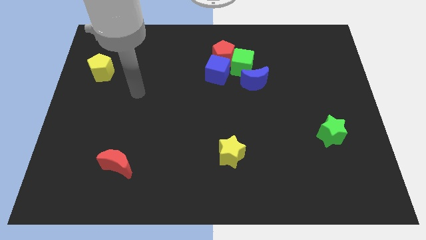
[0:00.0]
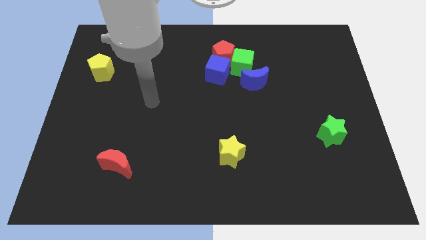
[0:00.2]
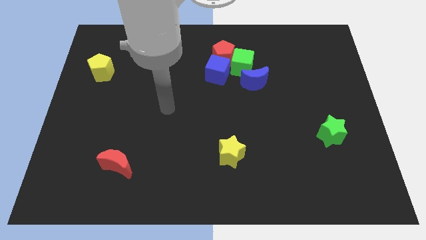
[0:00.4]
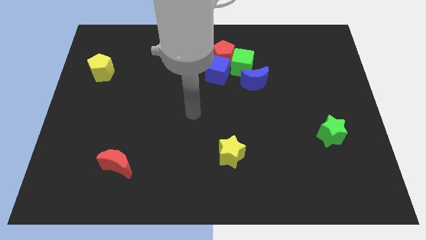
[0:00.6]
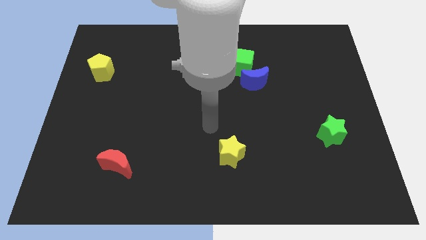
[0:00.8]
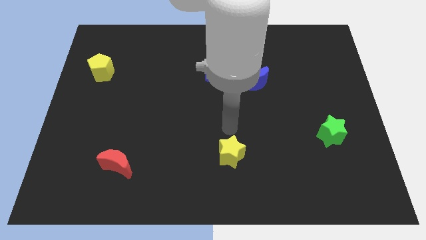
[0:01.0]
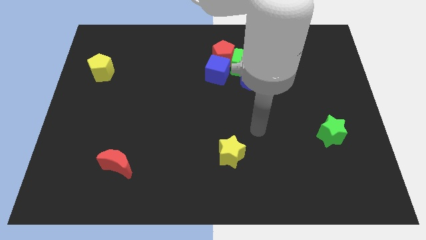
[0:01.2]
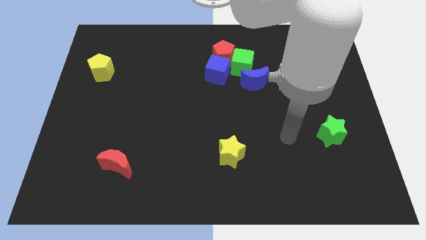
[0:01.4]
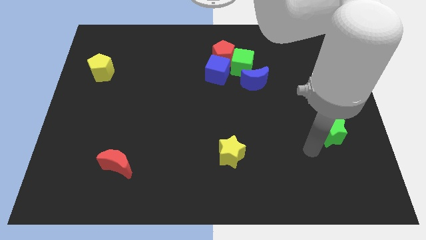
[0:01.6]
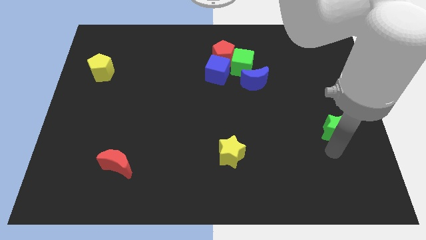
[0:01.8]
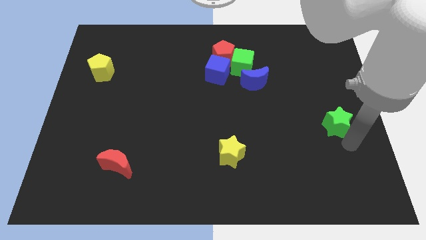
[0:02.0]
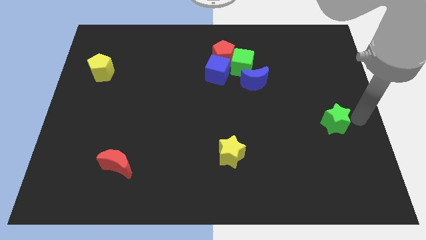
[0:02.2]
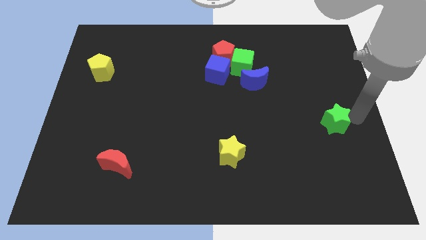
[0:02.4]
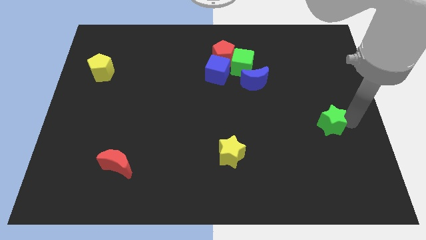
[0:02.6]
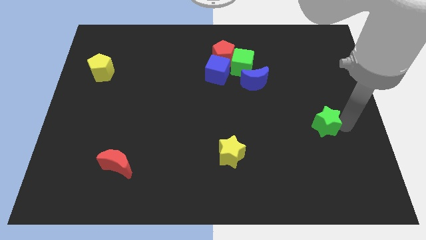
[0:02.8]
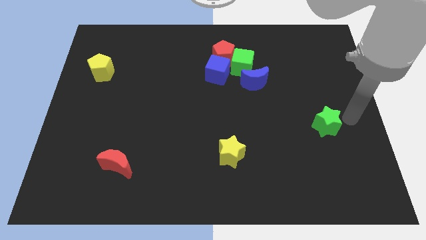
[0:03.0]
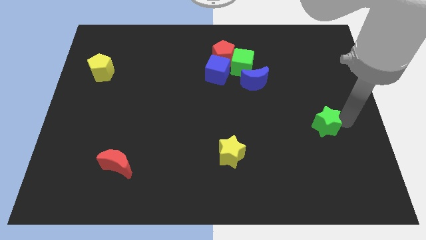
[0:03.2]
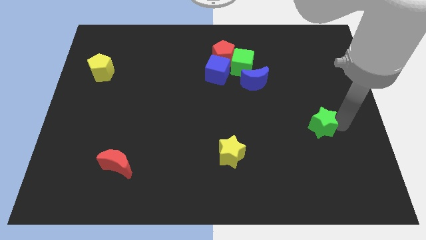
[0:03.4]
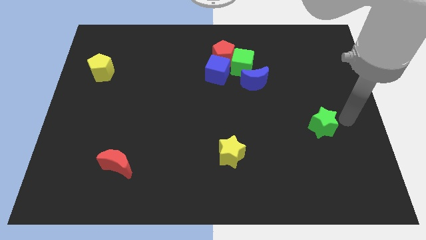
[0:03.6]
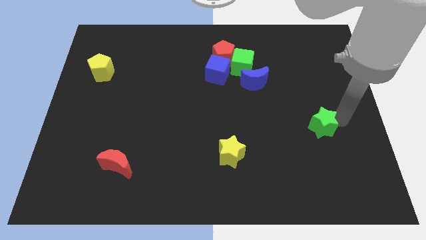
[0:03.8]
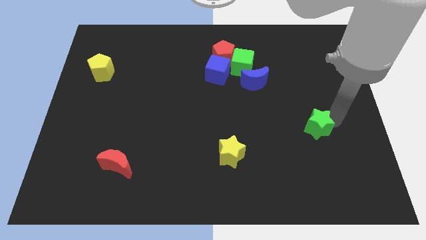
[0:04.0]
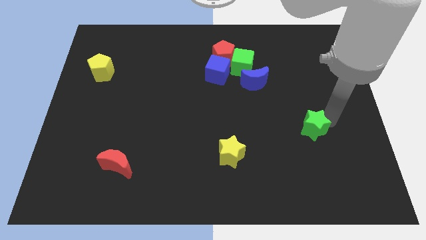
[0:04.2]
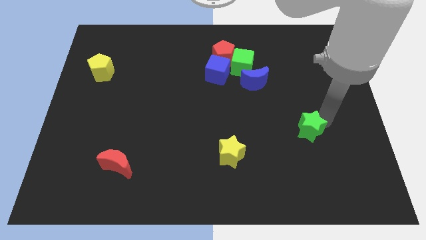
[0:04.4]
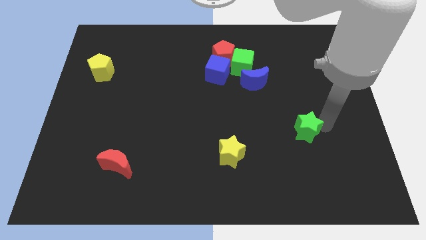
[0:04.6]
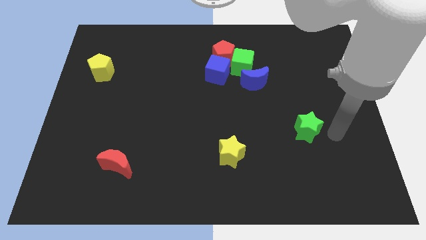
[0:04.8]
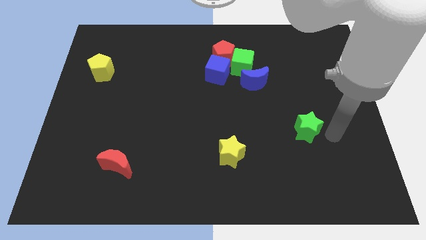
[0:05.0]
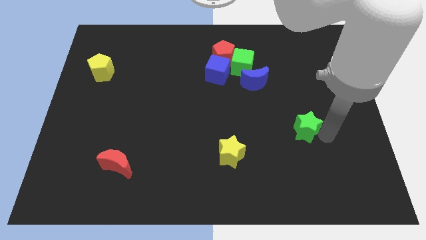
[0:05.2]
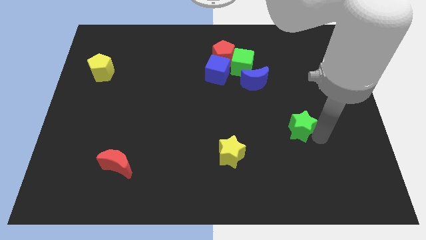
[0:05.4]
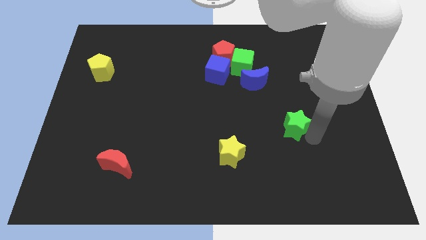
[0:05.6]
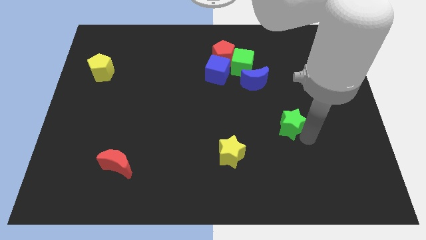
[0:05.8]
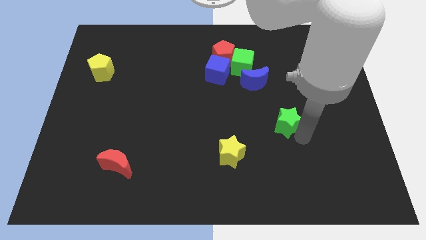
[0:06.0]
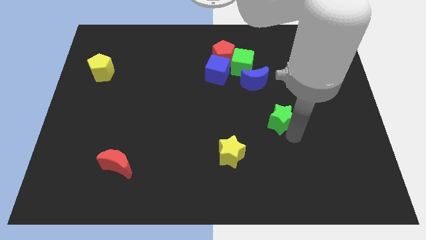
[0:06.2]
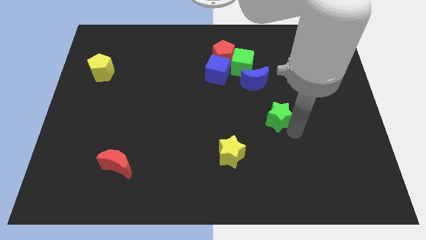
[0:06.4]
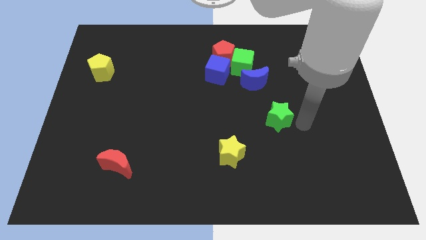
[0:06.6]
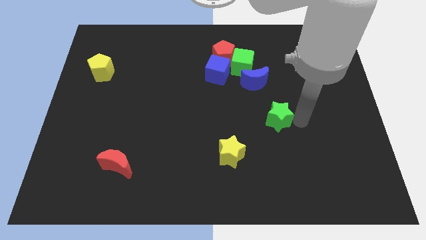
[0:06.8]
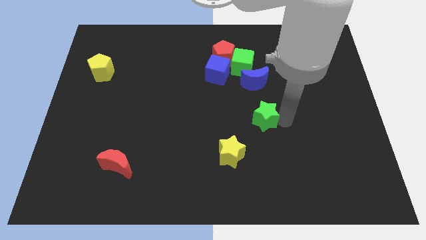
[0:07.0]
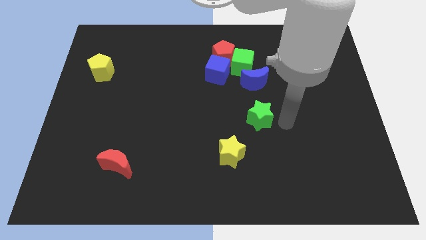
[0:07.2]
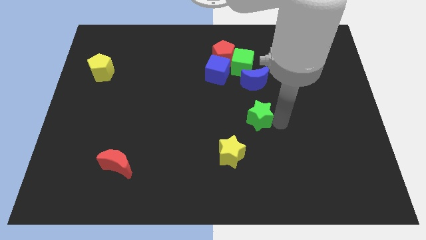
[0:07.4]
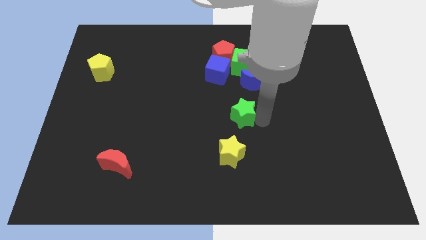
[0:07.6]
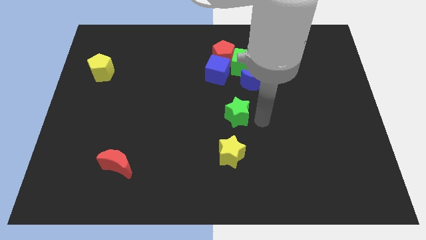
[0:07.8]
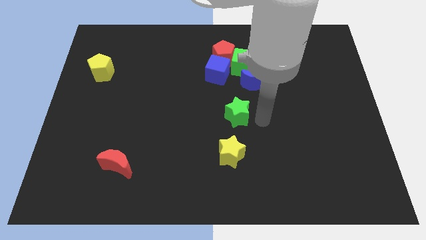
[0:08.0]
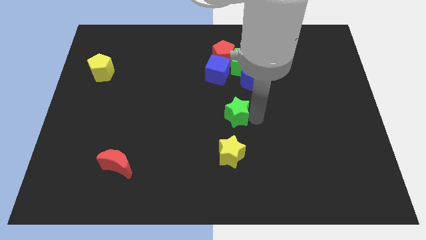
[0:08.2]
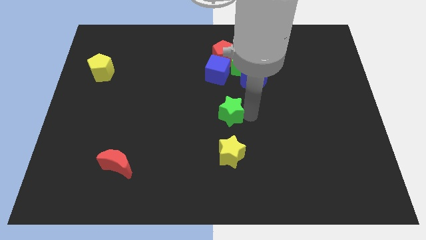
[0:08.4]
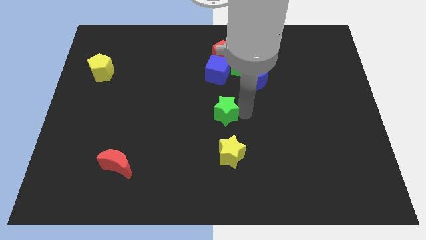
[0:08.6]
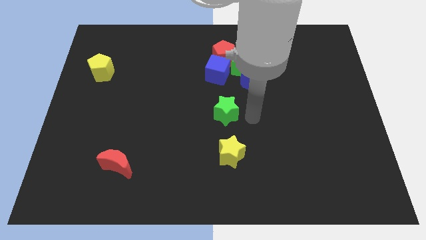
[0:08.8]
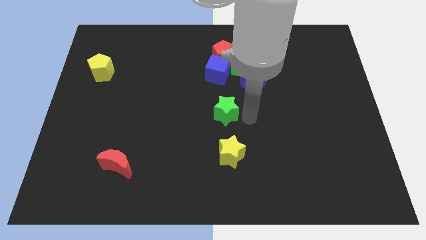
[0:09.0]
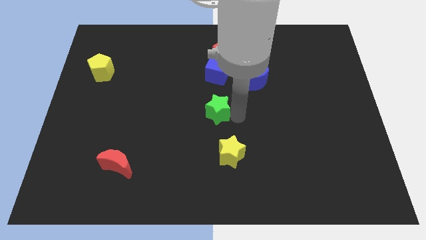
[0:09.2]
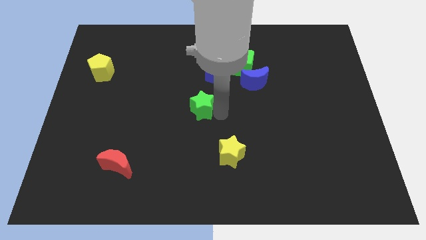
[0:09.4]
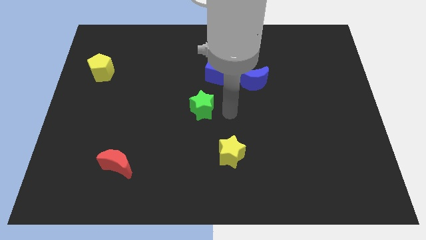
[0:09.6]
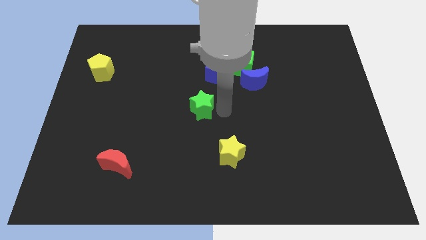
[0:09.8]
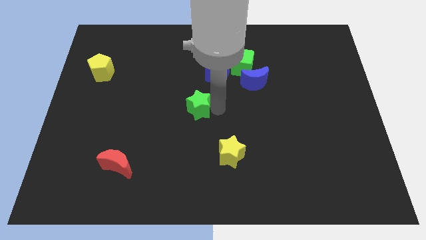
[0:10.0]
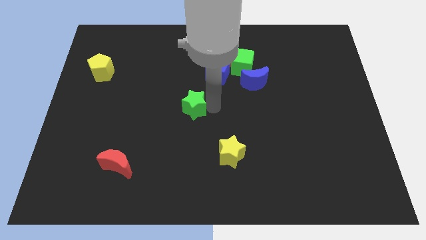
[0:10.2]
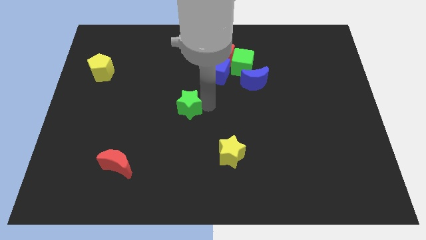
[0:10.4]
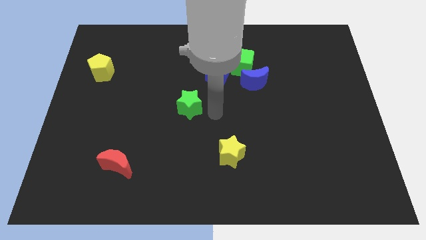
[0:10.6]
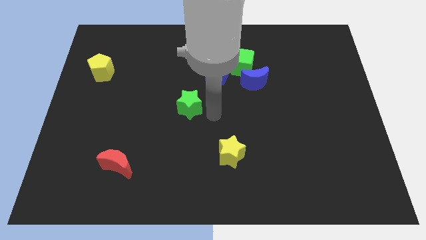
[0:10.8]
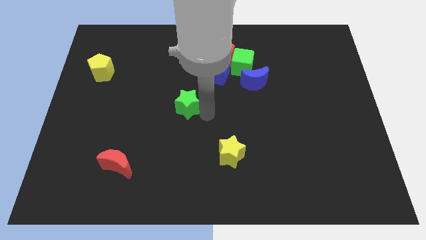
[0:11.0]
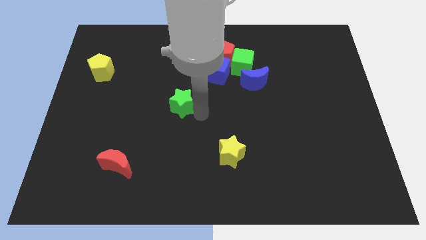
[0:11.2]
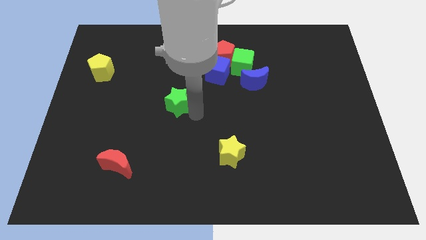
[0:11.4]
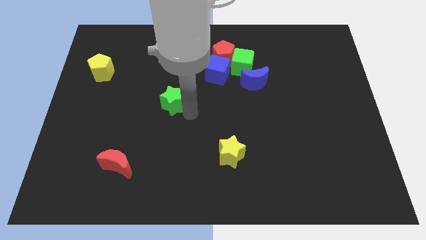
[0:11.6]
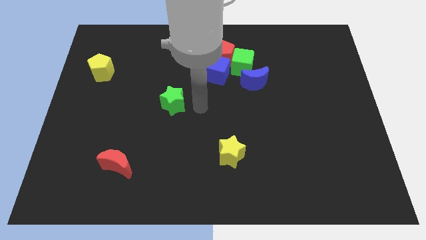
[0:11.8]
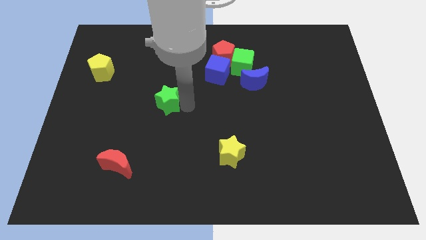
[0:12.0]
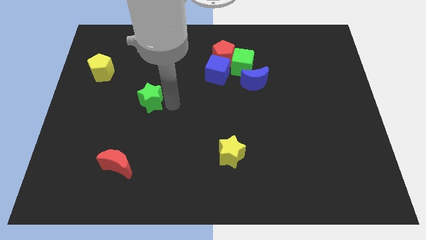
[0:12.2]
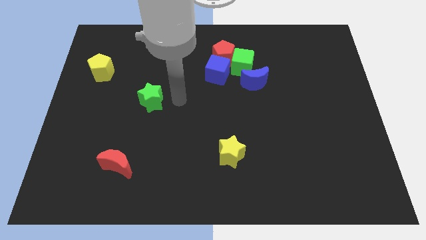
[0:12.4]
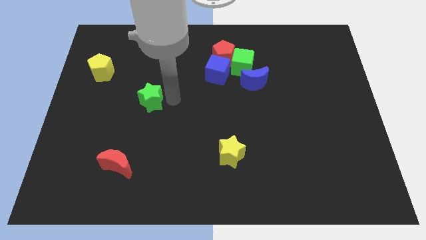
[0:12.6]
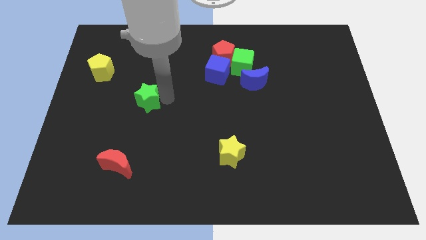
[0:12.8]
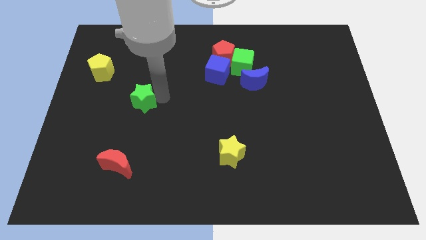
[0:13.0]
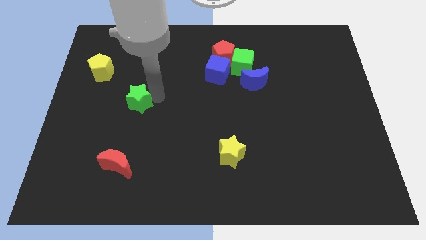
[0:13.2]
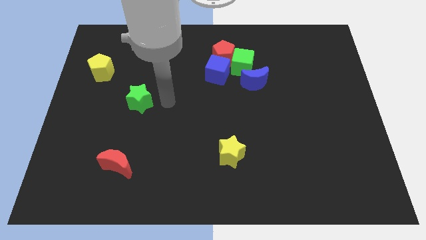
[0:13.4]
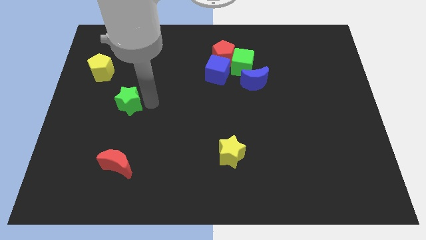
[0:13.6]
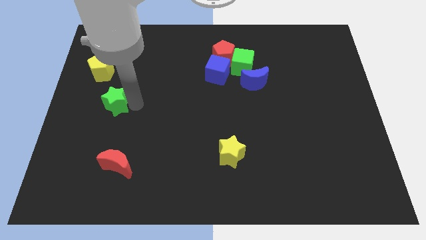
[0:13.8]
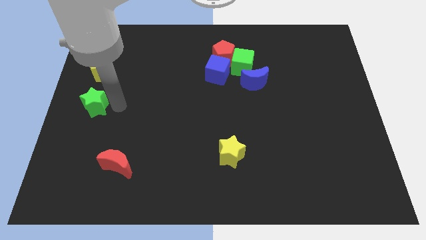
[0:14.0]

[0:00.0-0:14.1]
put the green star to the center left

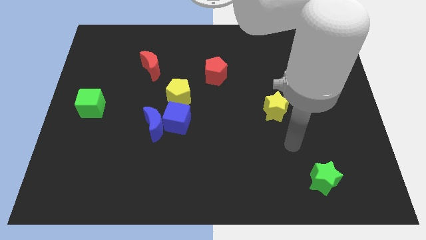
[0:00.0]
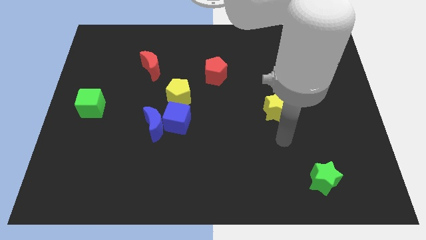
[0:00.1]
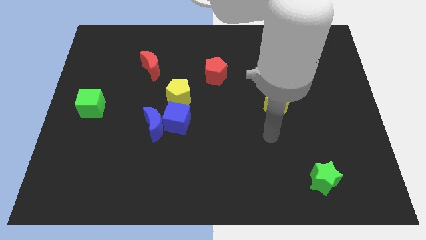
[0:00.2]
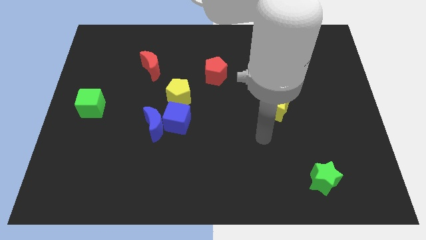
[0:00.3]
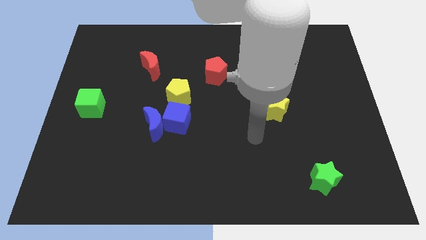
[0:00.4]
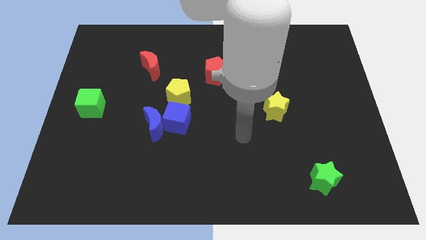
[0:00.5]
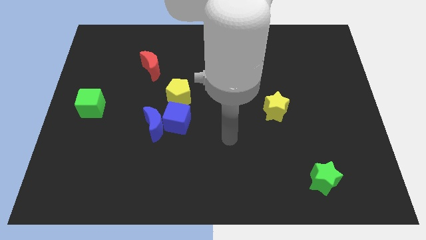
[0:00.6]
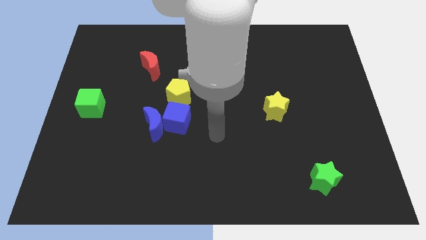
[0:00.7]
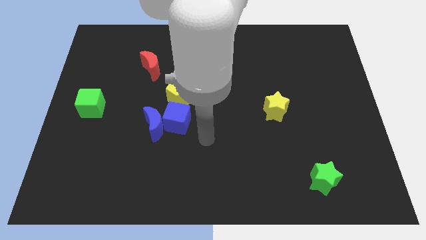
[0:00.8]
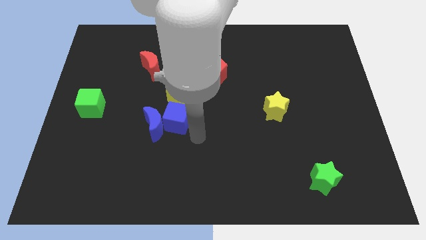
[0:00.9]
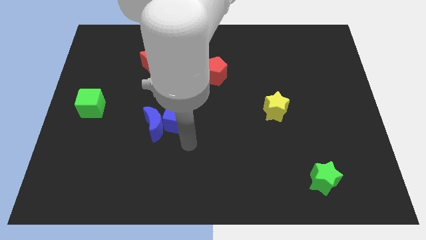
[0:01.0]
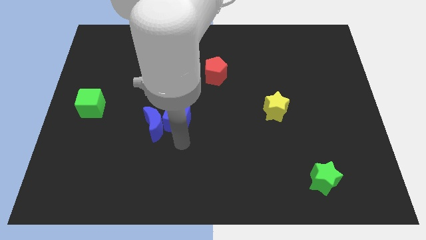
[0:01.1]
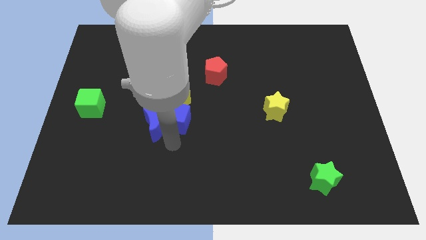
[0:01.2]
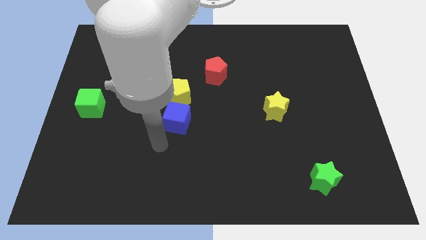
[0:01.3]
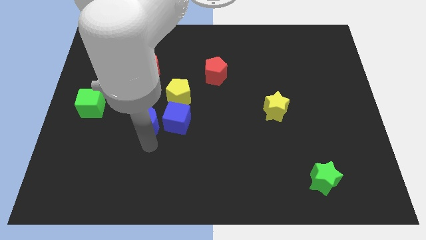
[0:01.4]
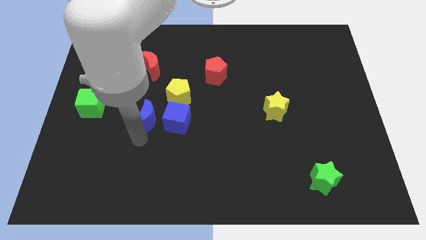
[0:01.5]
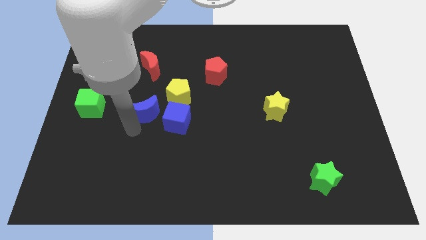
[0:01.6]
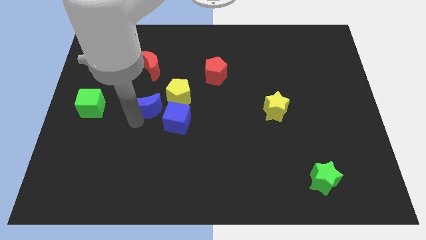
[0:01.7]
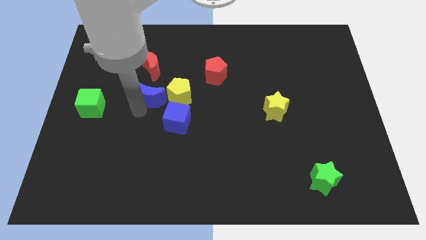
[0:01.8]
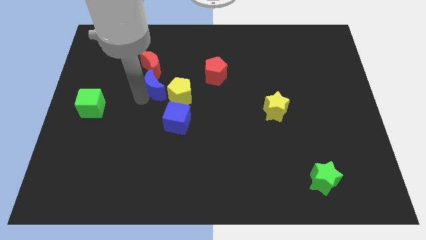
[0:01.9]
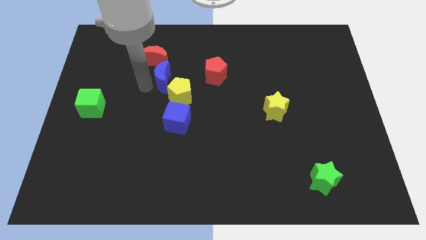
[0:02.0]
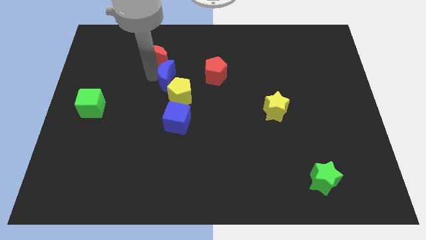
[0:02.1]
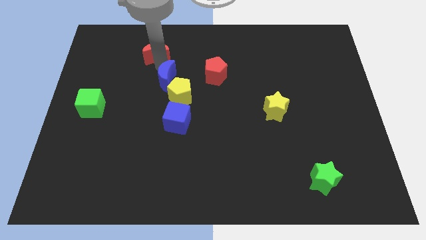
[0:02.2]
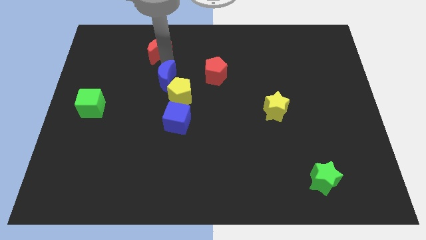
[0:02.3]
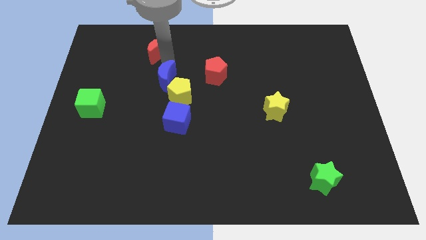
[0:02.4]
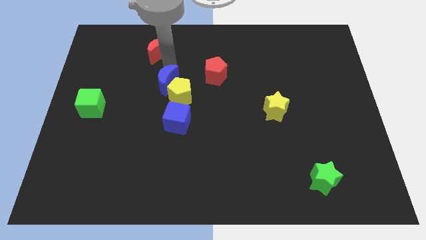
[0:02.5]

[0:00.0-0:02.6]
slide the blue moon to the middle
